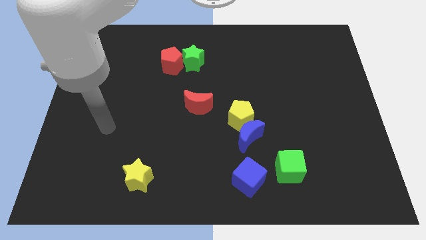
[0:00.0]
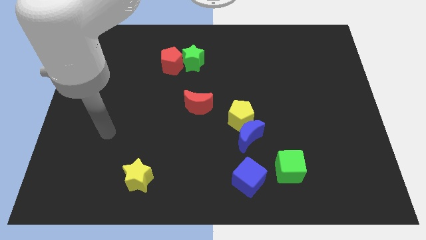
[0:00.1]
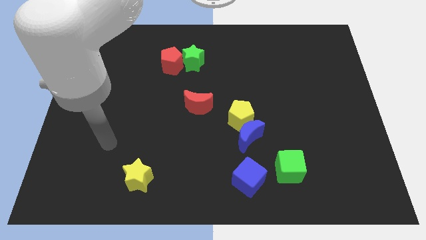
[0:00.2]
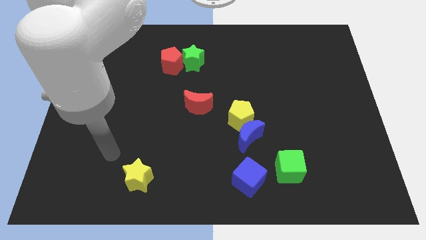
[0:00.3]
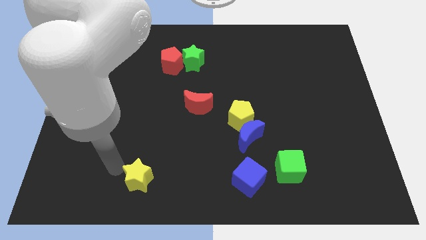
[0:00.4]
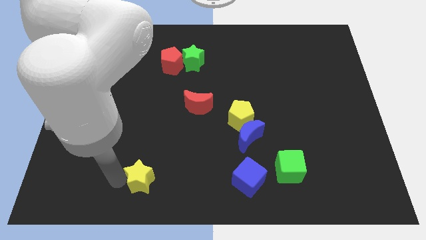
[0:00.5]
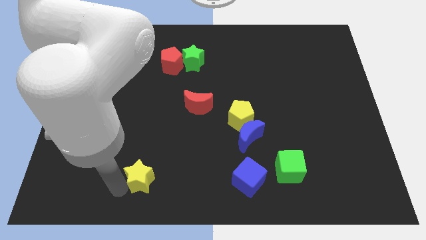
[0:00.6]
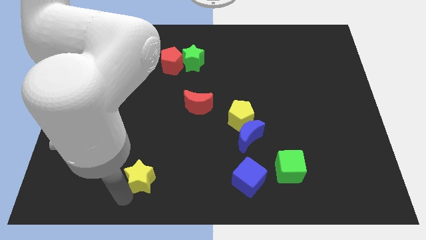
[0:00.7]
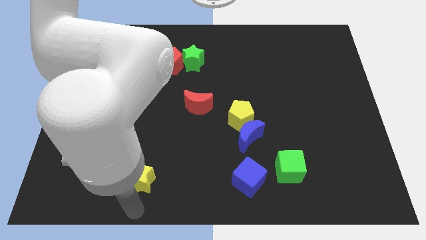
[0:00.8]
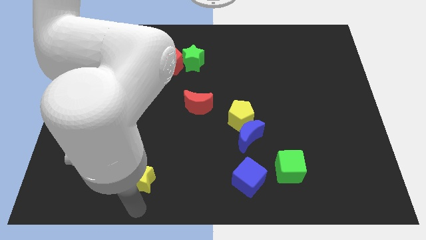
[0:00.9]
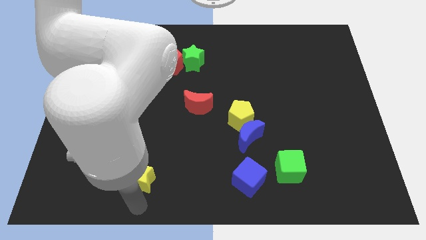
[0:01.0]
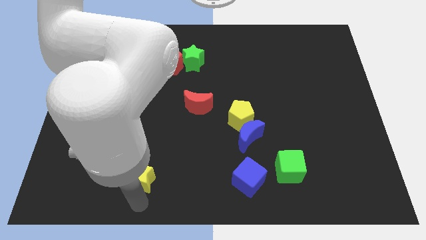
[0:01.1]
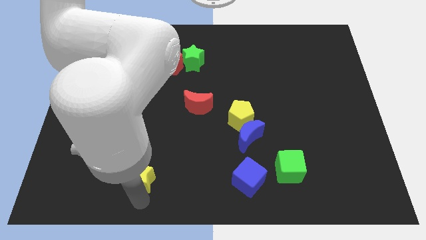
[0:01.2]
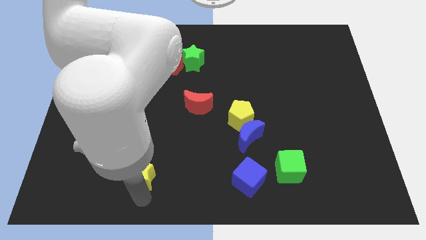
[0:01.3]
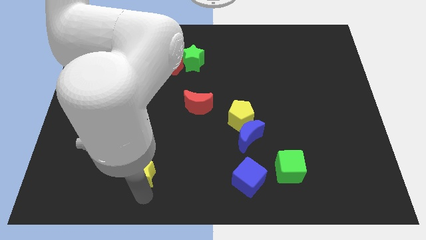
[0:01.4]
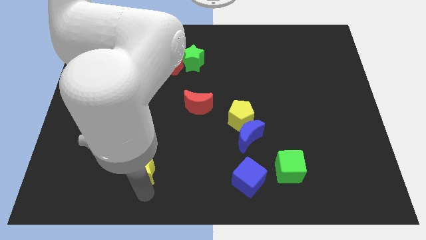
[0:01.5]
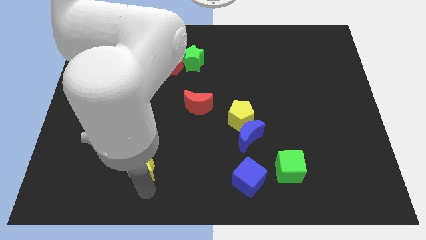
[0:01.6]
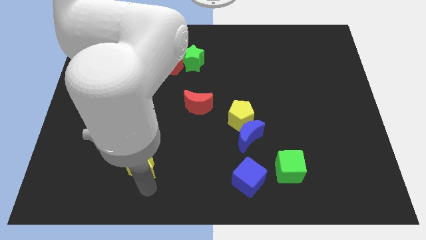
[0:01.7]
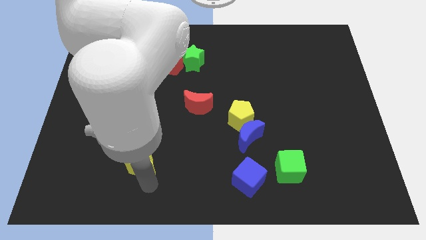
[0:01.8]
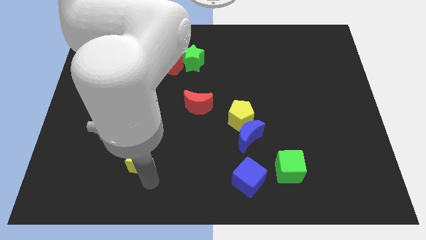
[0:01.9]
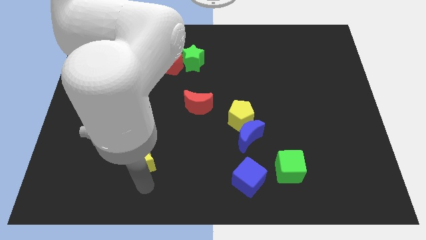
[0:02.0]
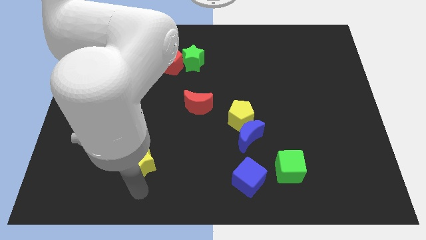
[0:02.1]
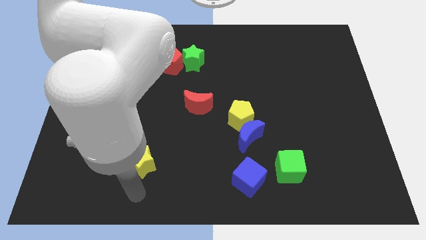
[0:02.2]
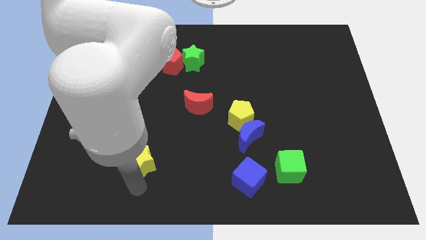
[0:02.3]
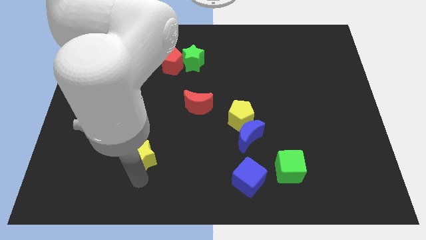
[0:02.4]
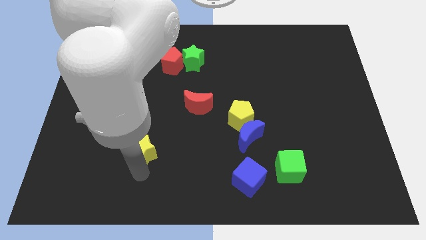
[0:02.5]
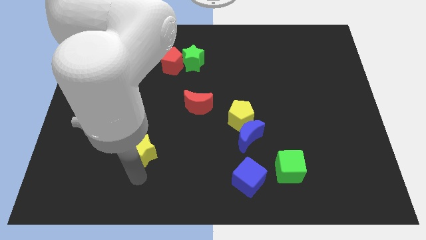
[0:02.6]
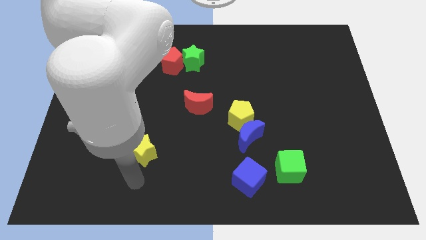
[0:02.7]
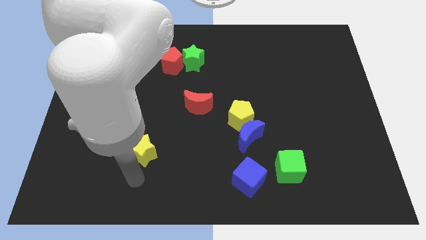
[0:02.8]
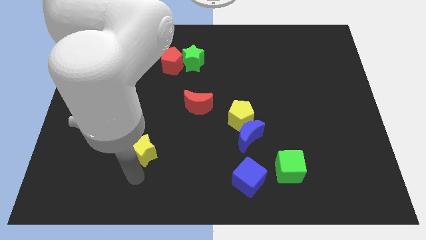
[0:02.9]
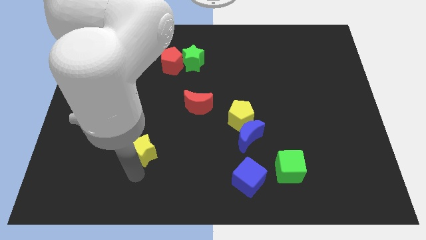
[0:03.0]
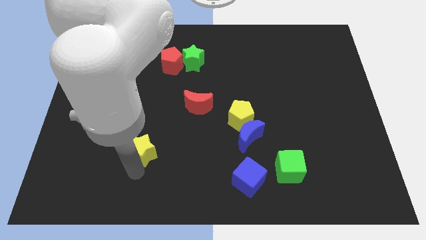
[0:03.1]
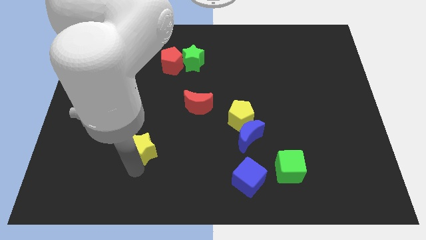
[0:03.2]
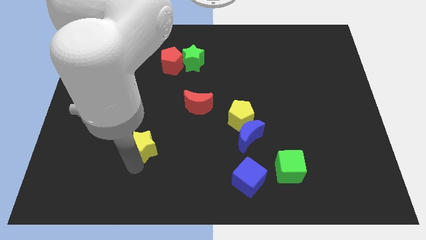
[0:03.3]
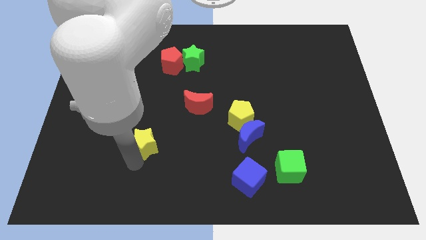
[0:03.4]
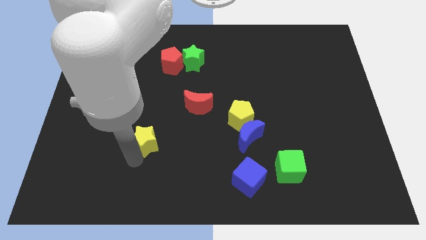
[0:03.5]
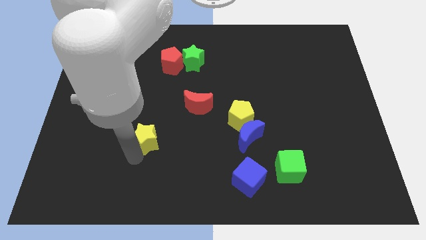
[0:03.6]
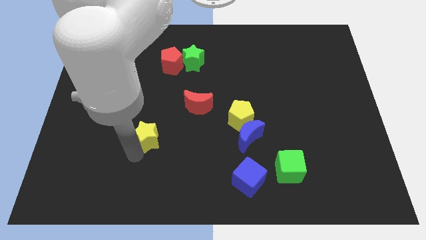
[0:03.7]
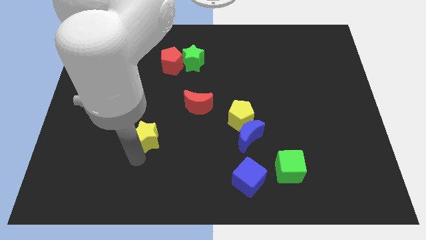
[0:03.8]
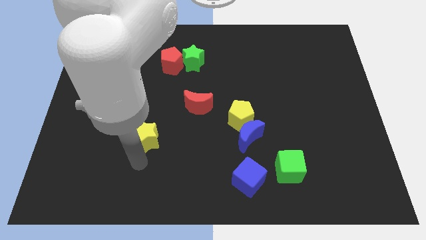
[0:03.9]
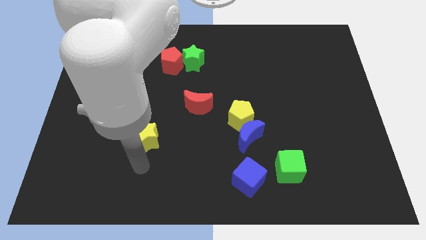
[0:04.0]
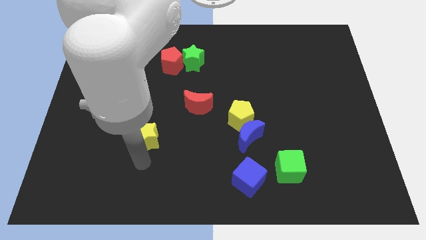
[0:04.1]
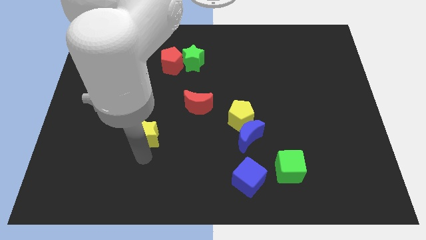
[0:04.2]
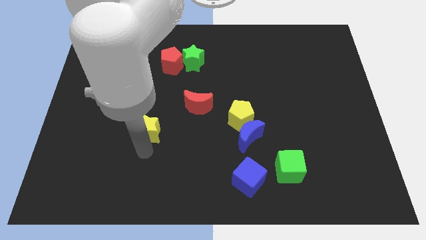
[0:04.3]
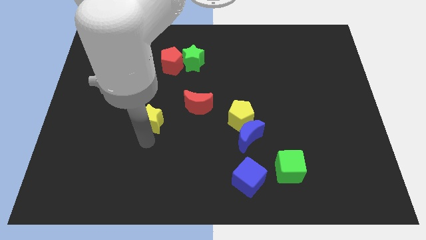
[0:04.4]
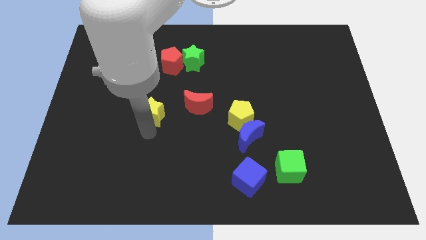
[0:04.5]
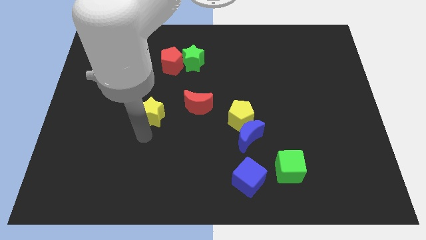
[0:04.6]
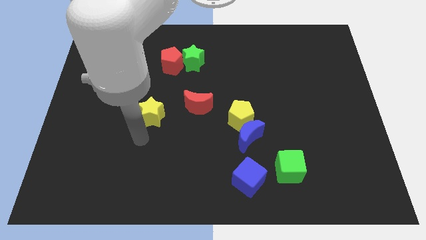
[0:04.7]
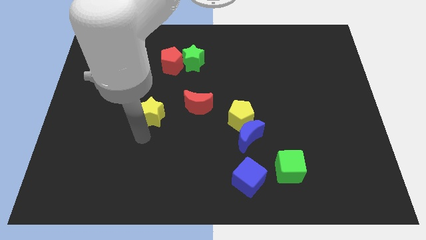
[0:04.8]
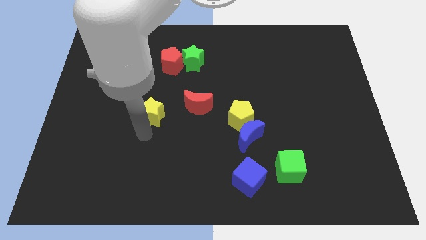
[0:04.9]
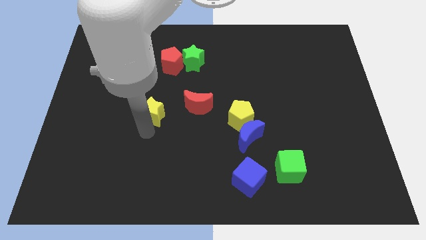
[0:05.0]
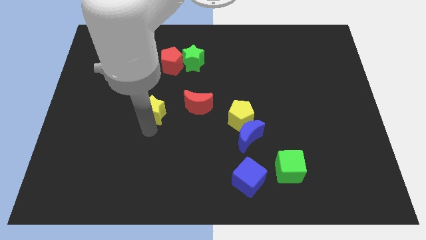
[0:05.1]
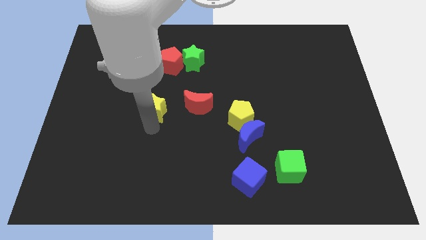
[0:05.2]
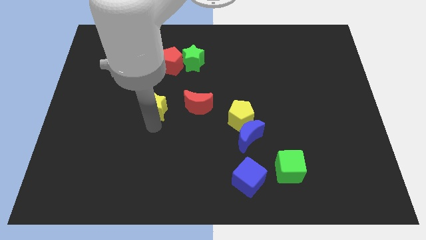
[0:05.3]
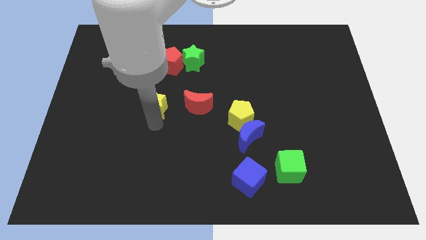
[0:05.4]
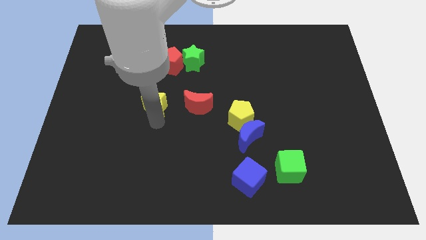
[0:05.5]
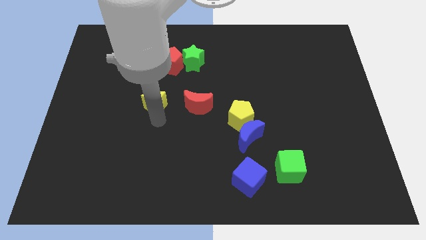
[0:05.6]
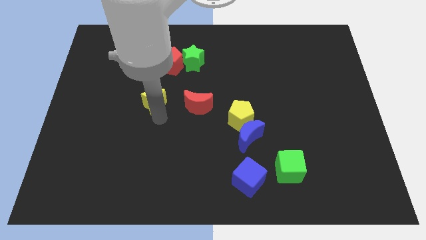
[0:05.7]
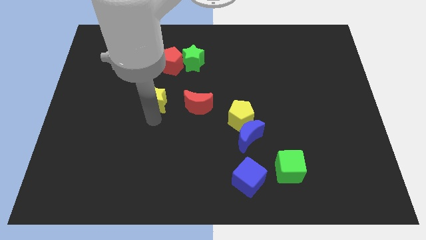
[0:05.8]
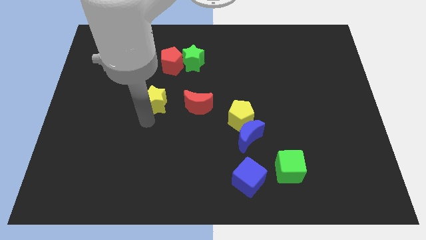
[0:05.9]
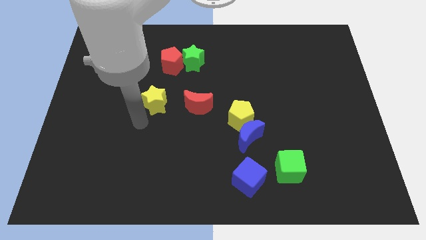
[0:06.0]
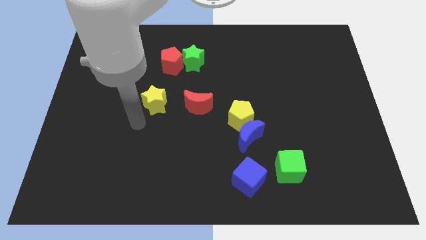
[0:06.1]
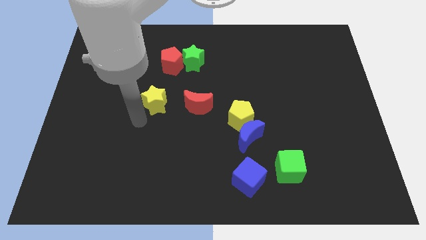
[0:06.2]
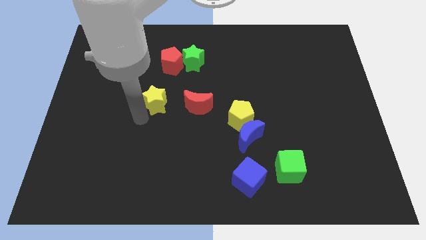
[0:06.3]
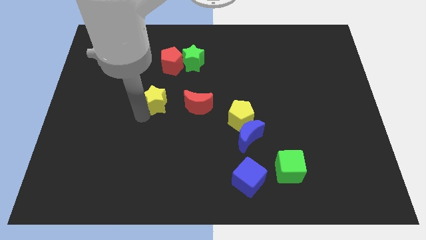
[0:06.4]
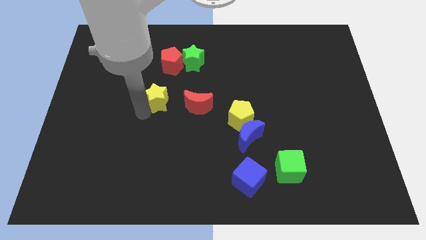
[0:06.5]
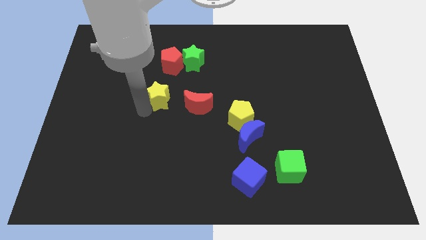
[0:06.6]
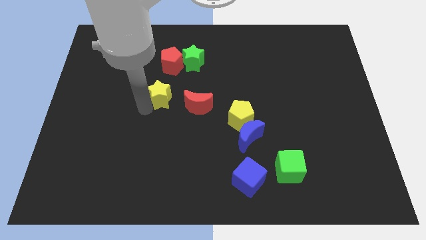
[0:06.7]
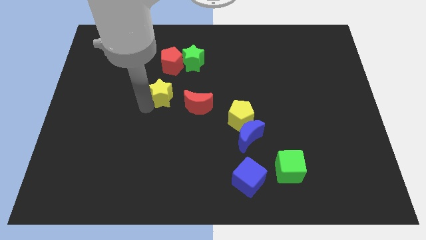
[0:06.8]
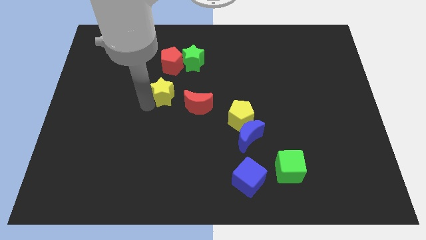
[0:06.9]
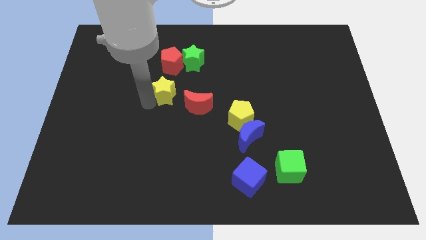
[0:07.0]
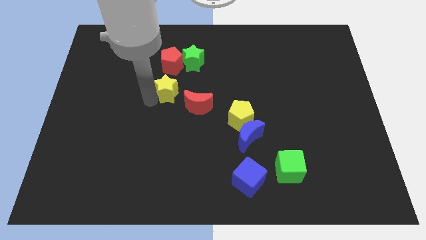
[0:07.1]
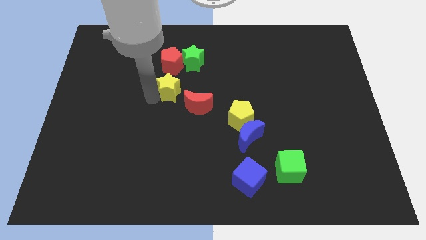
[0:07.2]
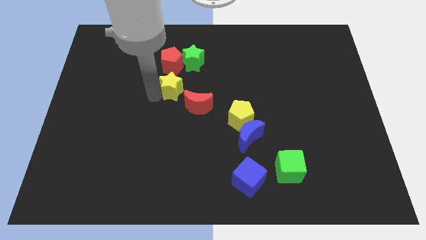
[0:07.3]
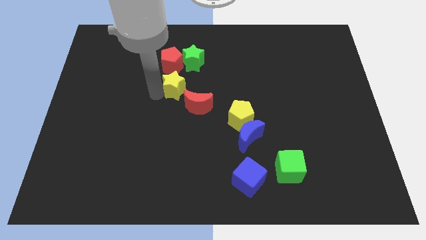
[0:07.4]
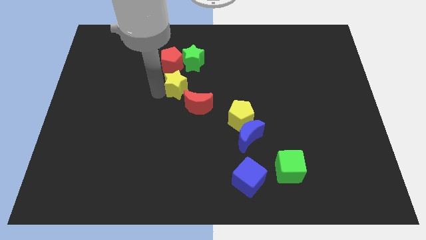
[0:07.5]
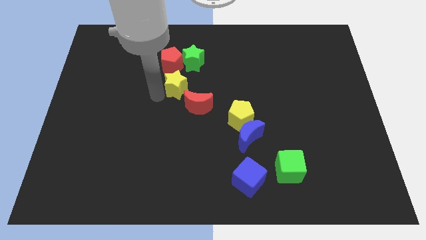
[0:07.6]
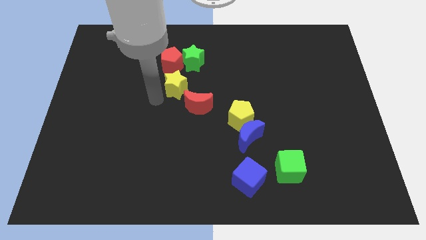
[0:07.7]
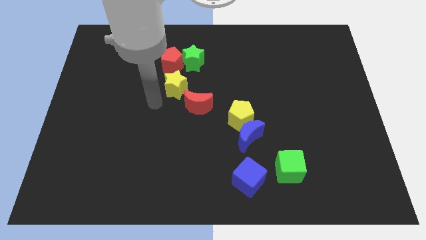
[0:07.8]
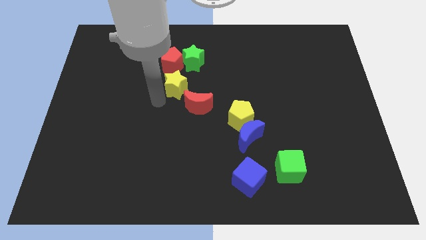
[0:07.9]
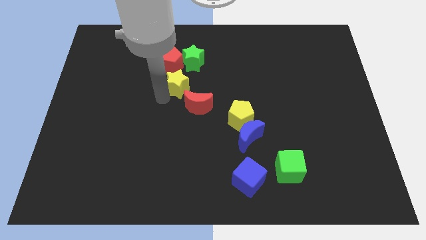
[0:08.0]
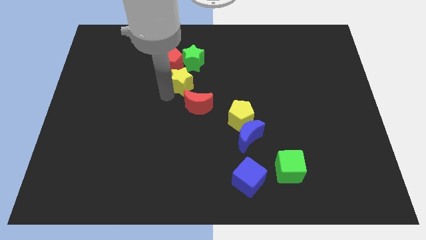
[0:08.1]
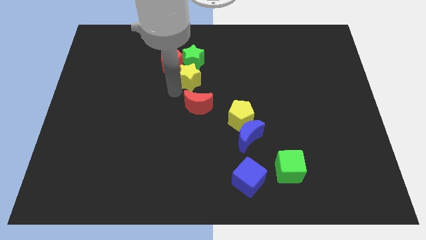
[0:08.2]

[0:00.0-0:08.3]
move the yellow star to the green star
